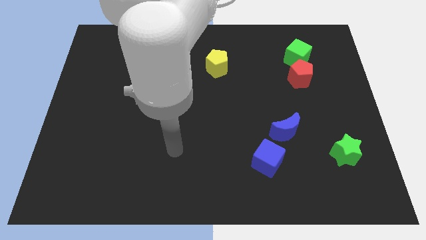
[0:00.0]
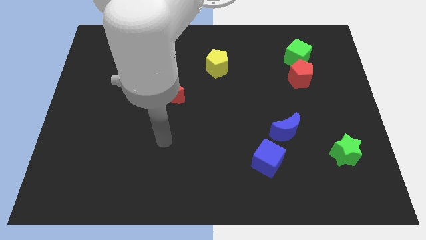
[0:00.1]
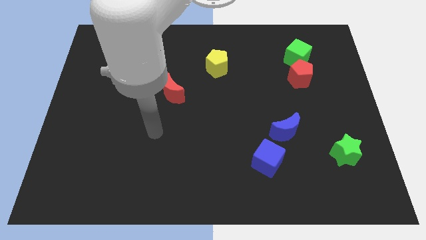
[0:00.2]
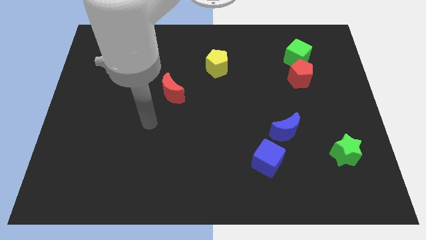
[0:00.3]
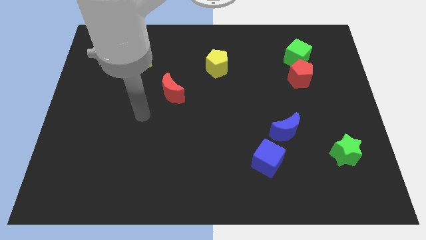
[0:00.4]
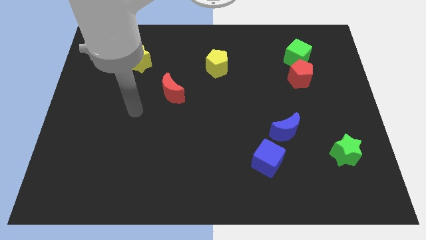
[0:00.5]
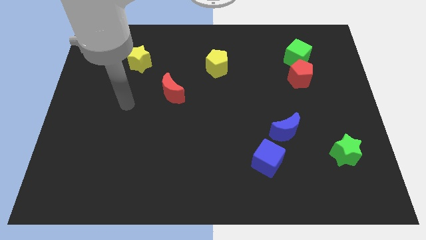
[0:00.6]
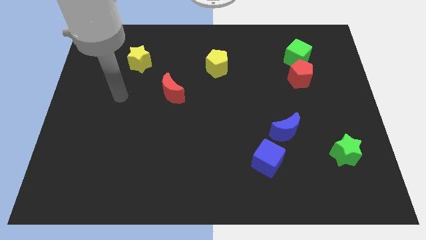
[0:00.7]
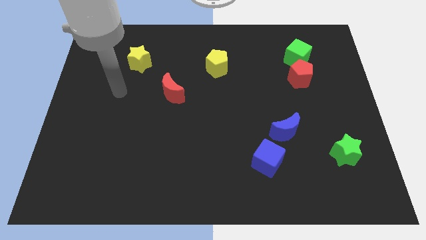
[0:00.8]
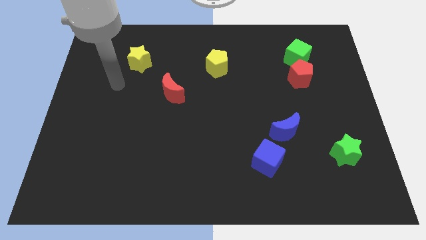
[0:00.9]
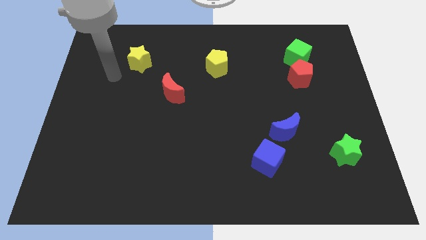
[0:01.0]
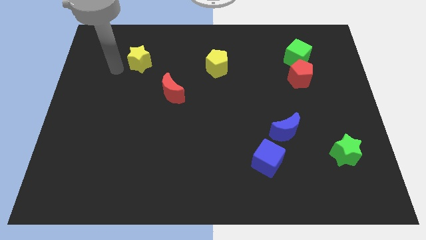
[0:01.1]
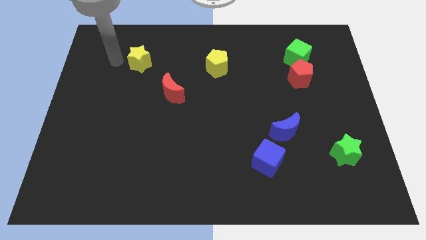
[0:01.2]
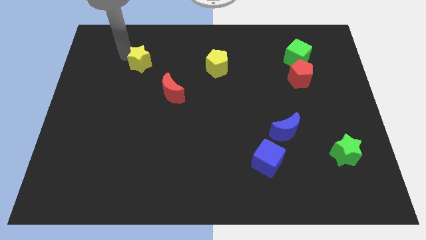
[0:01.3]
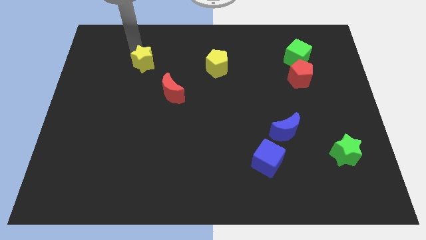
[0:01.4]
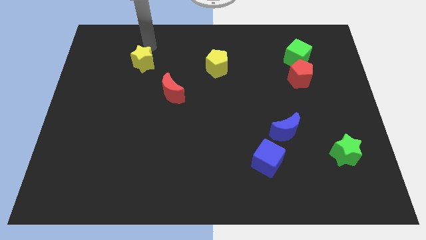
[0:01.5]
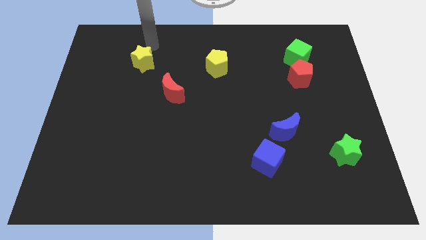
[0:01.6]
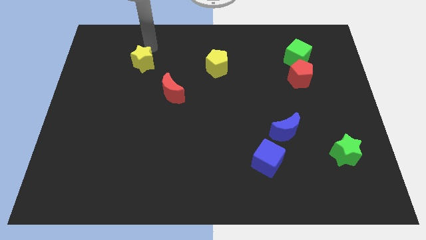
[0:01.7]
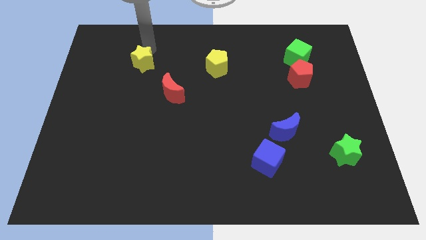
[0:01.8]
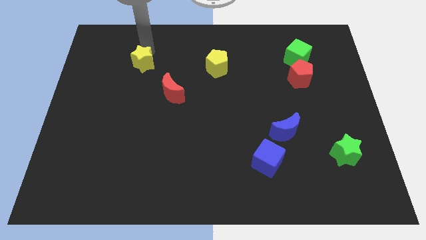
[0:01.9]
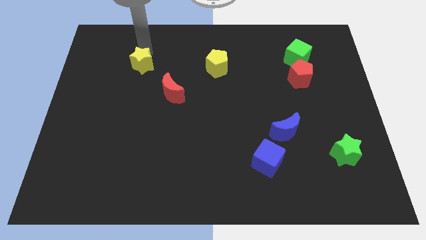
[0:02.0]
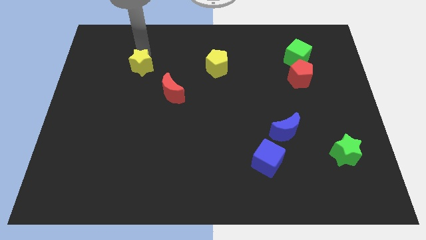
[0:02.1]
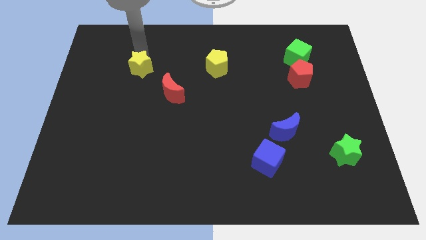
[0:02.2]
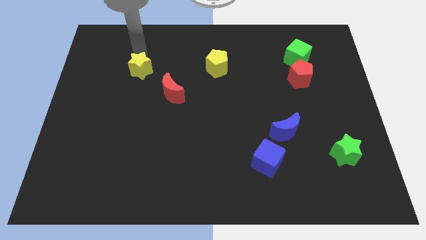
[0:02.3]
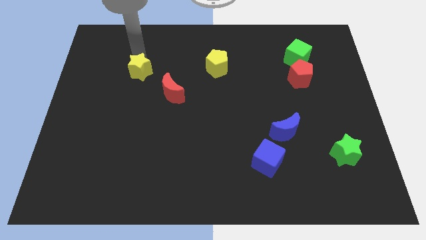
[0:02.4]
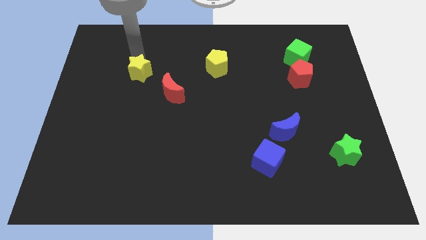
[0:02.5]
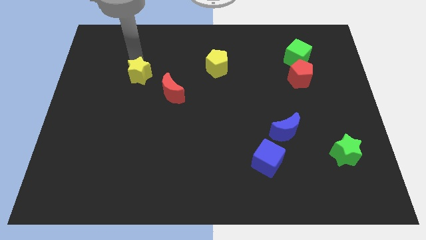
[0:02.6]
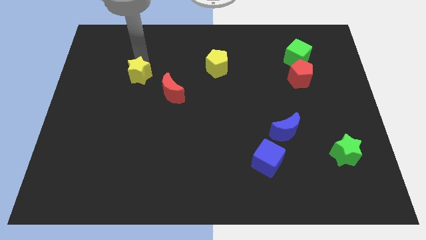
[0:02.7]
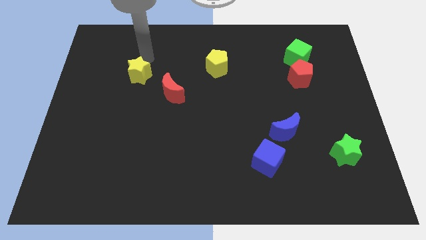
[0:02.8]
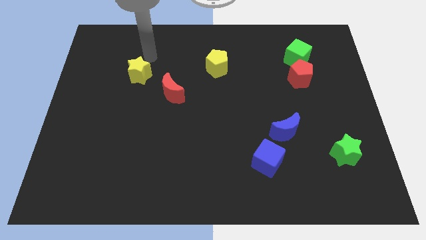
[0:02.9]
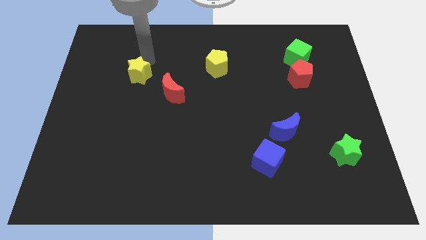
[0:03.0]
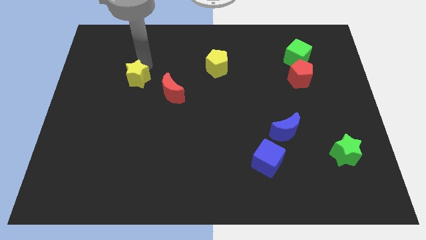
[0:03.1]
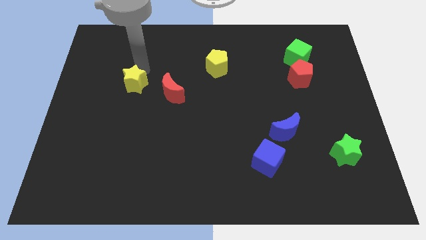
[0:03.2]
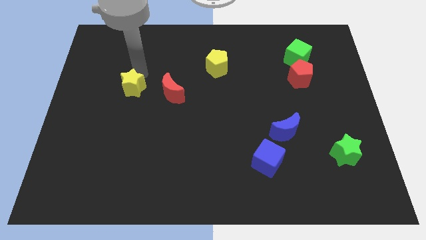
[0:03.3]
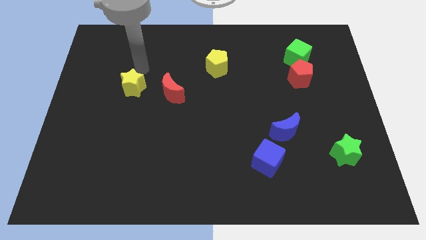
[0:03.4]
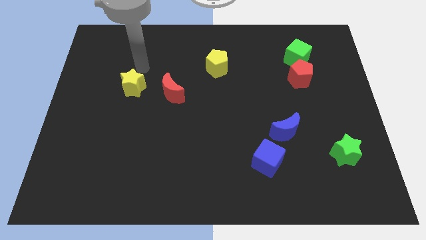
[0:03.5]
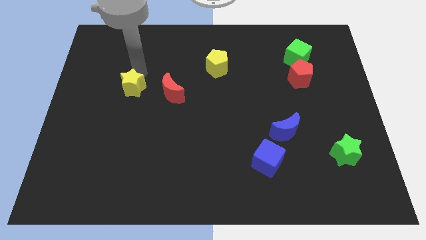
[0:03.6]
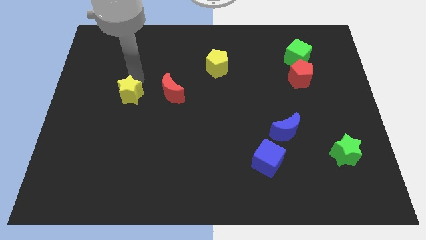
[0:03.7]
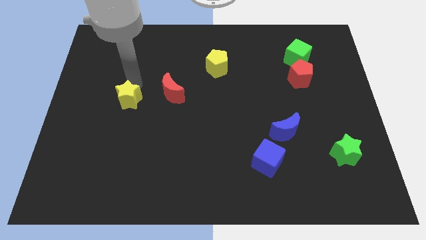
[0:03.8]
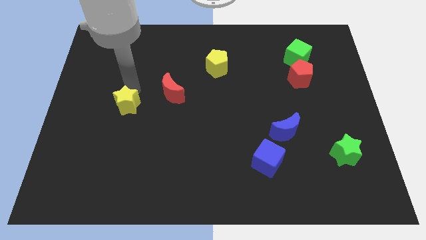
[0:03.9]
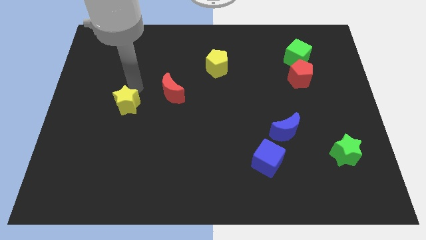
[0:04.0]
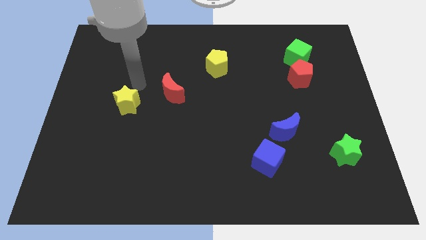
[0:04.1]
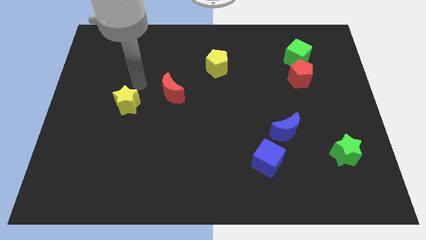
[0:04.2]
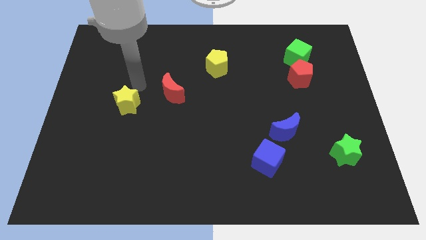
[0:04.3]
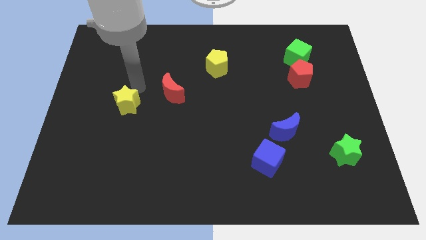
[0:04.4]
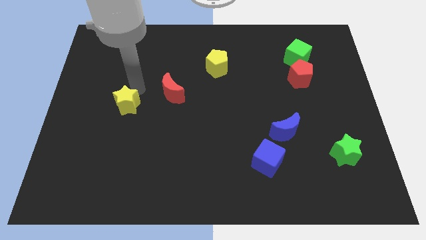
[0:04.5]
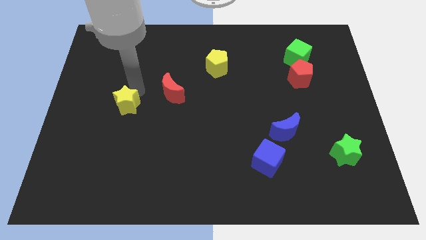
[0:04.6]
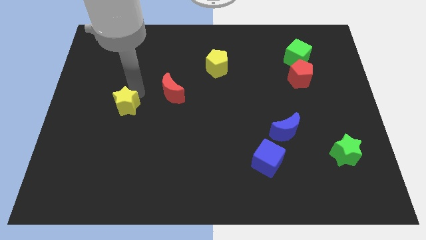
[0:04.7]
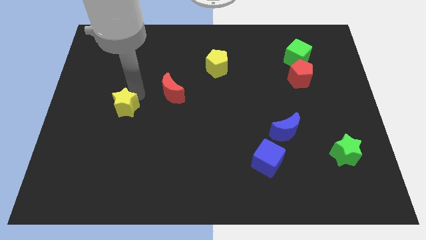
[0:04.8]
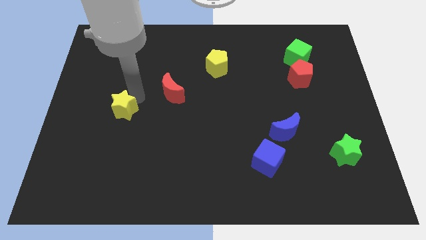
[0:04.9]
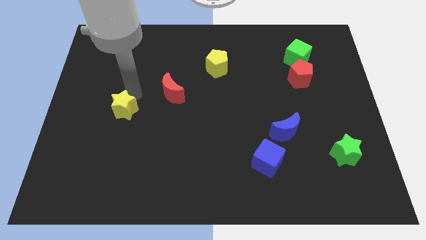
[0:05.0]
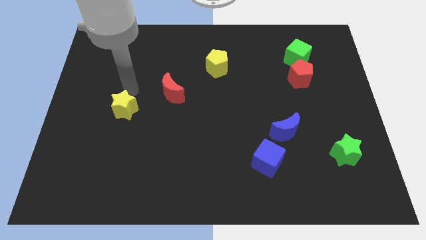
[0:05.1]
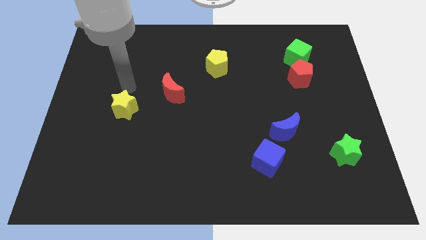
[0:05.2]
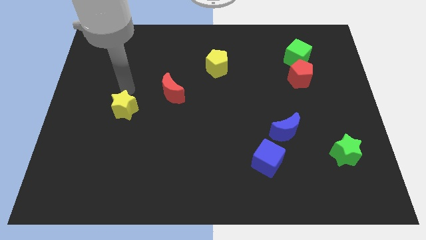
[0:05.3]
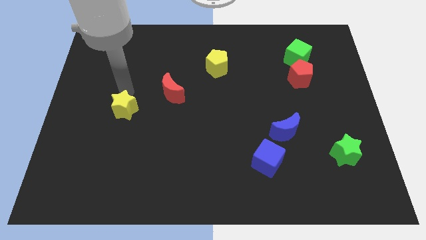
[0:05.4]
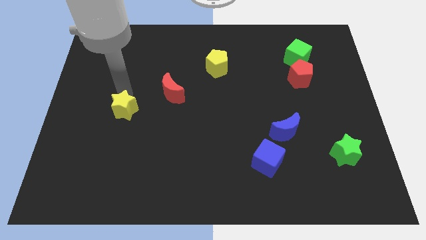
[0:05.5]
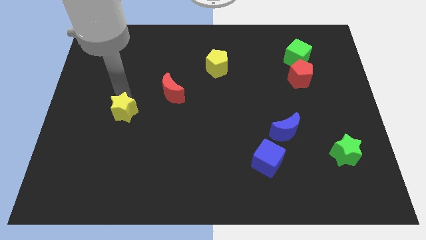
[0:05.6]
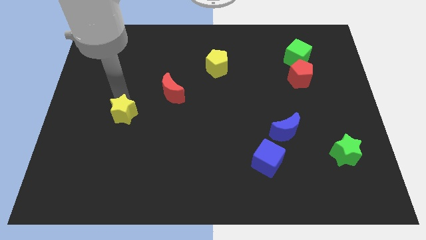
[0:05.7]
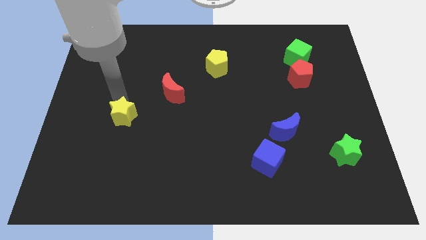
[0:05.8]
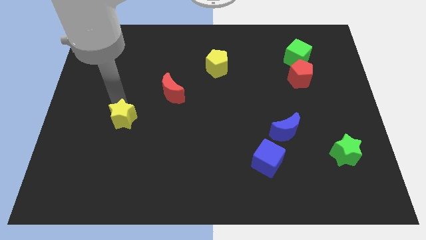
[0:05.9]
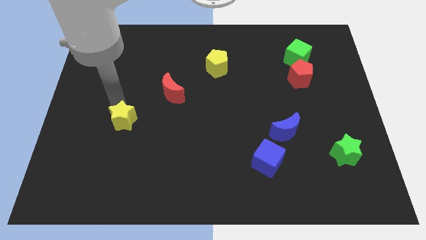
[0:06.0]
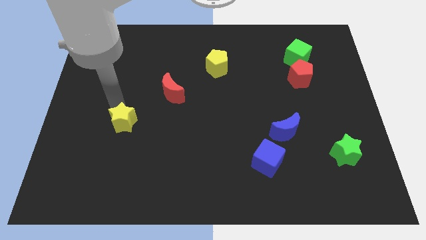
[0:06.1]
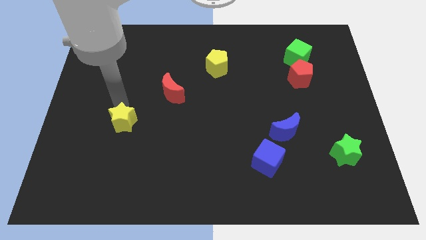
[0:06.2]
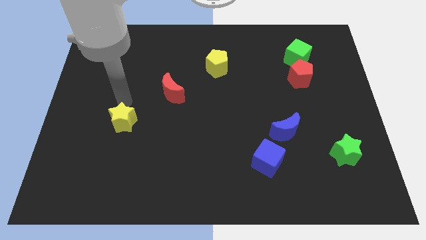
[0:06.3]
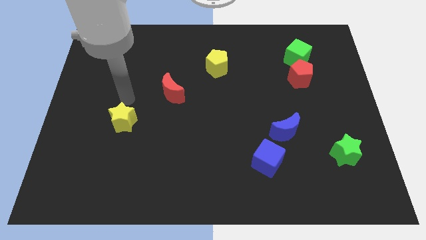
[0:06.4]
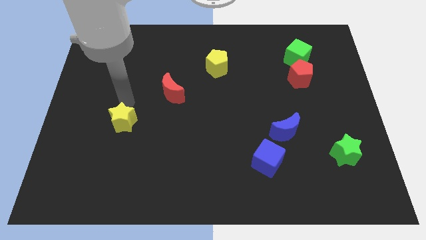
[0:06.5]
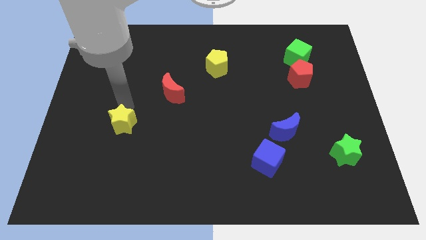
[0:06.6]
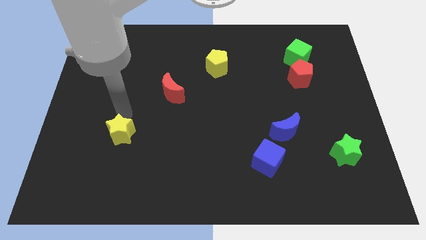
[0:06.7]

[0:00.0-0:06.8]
move the yellow star down

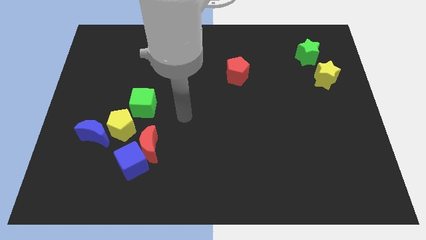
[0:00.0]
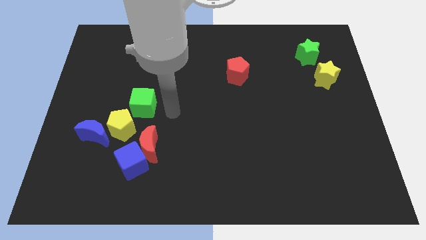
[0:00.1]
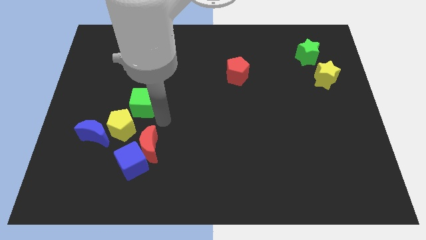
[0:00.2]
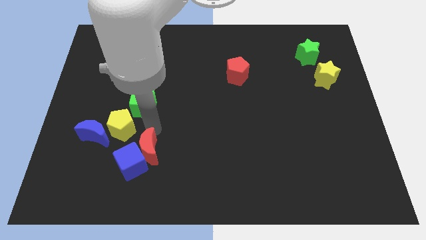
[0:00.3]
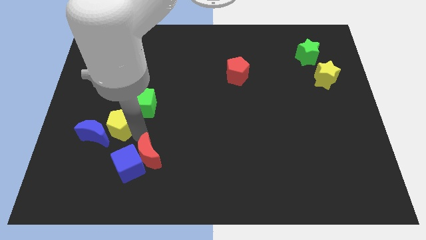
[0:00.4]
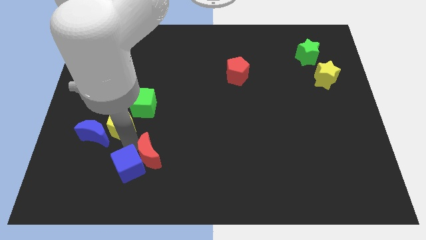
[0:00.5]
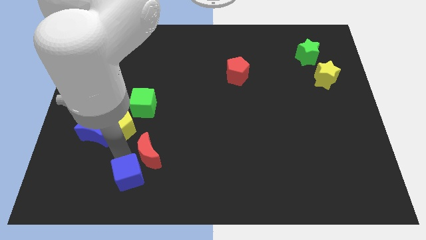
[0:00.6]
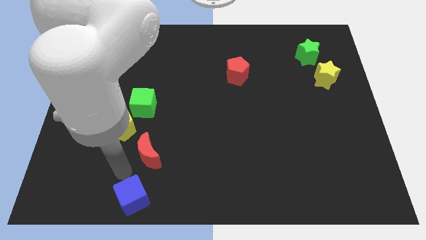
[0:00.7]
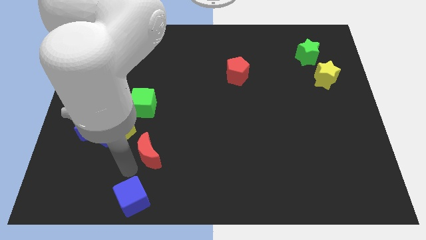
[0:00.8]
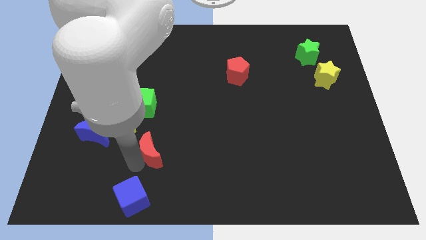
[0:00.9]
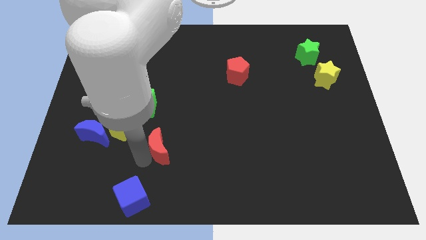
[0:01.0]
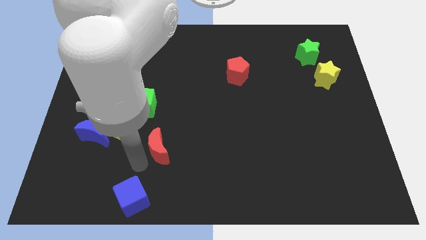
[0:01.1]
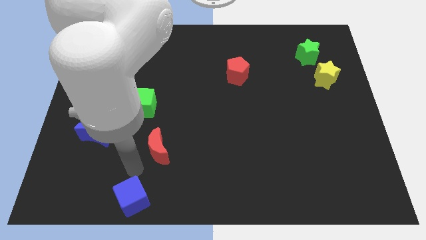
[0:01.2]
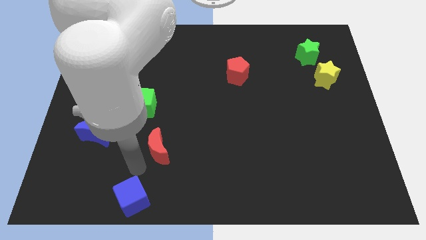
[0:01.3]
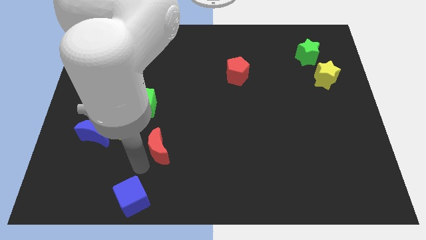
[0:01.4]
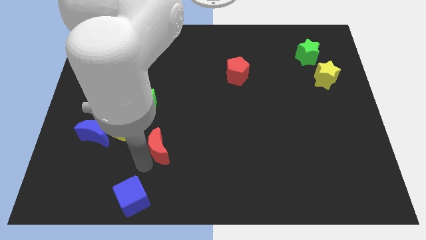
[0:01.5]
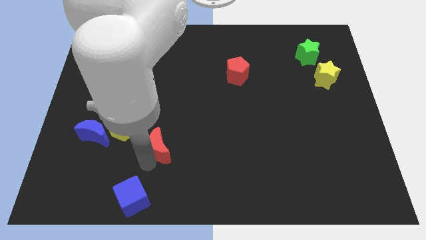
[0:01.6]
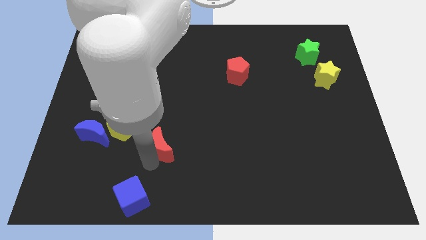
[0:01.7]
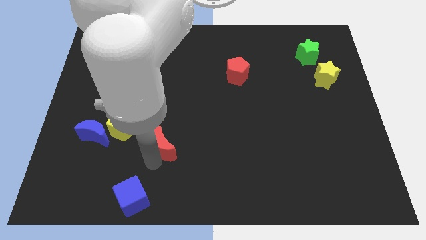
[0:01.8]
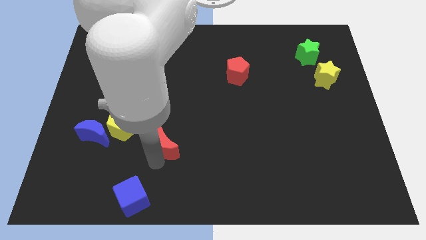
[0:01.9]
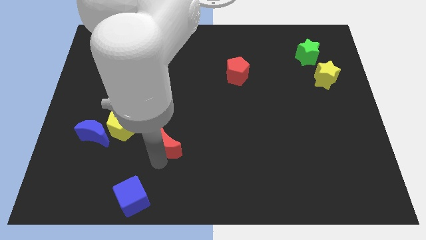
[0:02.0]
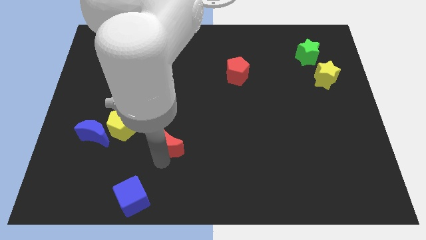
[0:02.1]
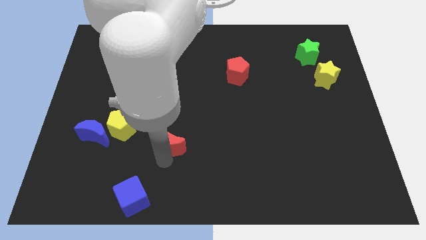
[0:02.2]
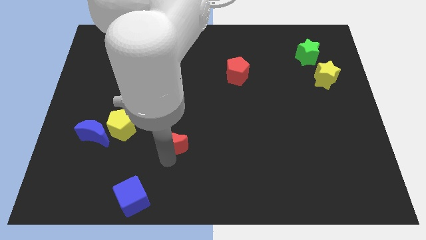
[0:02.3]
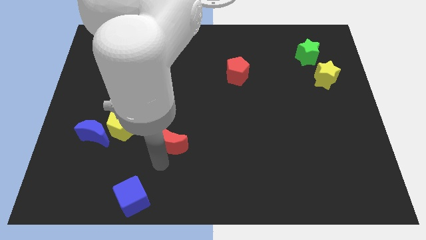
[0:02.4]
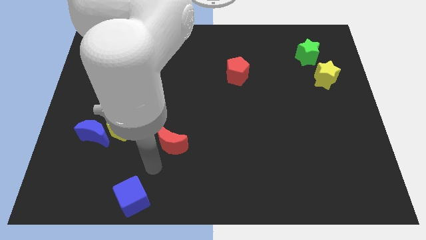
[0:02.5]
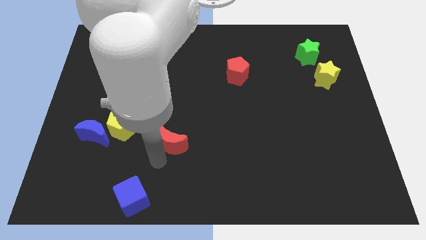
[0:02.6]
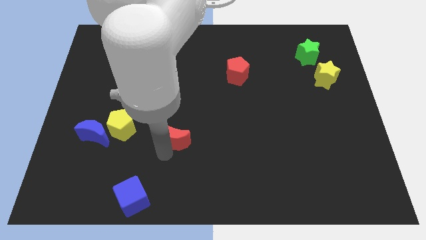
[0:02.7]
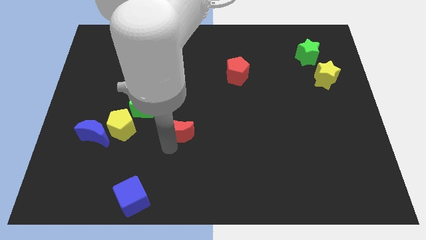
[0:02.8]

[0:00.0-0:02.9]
slide the red moon up and right slightly
